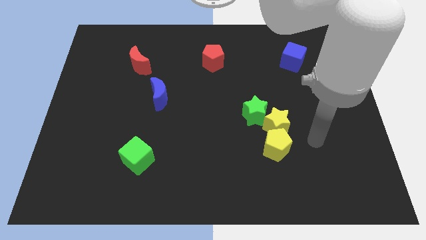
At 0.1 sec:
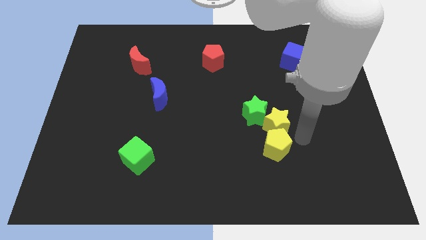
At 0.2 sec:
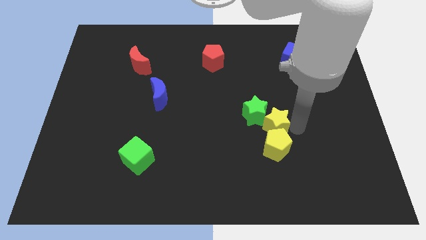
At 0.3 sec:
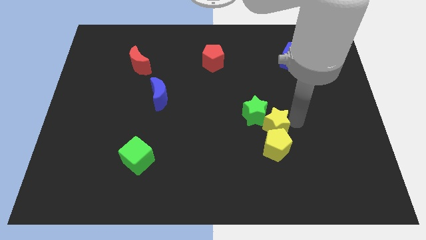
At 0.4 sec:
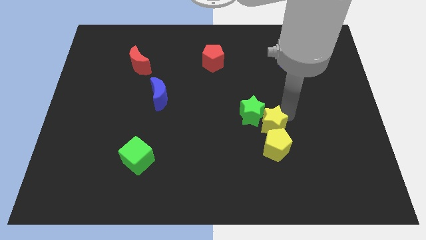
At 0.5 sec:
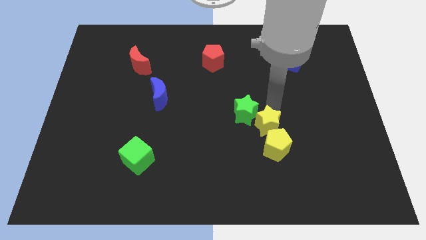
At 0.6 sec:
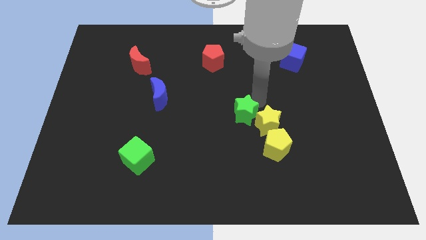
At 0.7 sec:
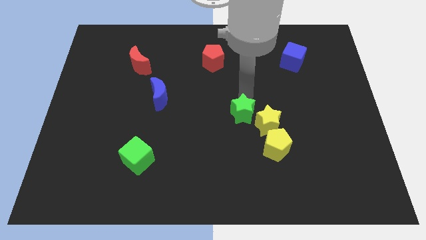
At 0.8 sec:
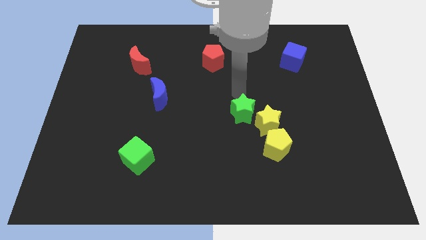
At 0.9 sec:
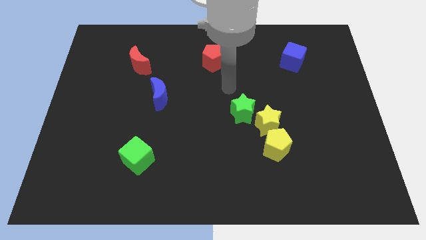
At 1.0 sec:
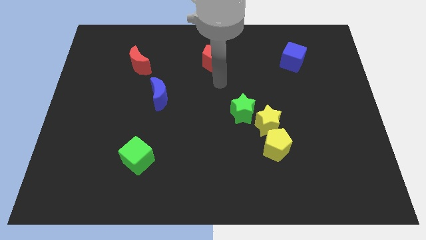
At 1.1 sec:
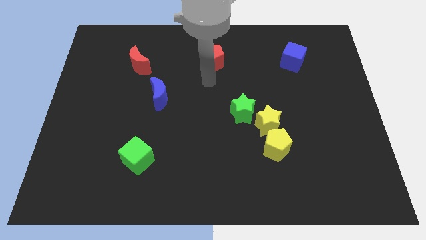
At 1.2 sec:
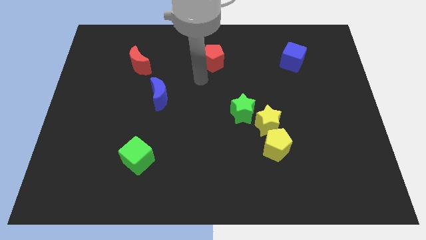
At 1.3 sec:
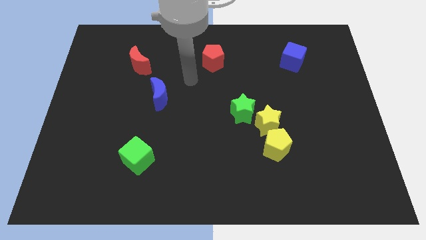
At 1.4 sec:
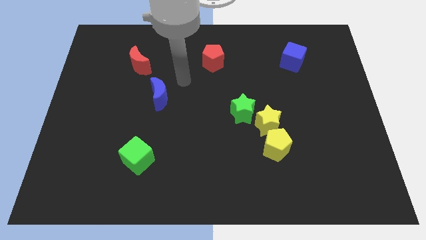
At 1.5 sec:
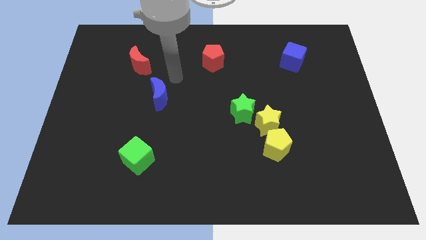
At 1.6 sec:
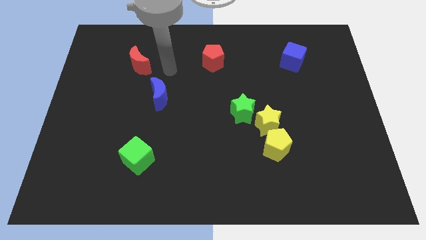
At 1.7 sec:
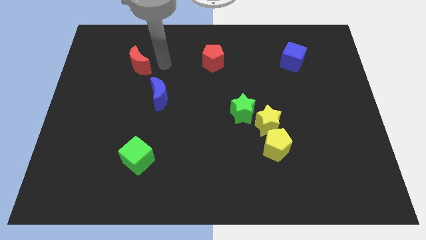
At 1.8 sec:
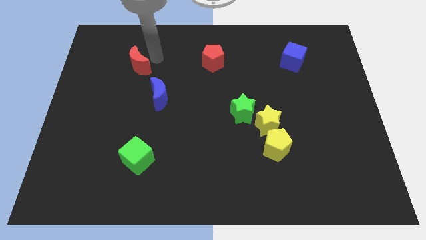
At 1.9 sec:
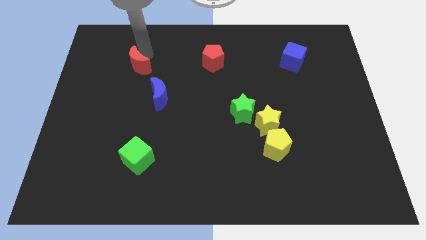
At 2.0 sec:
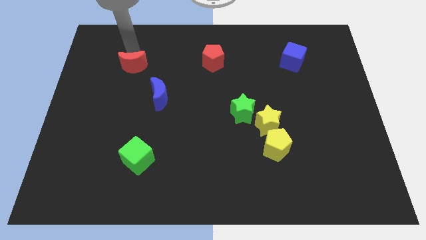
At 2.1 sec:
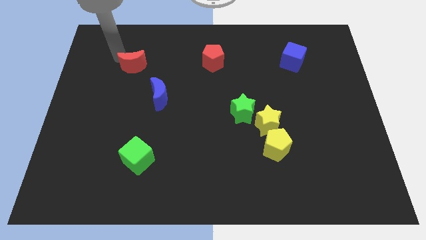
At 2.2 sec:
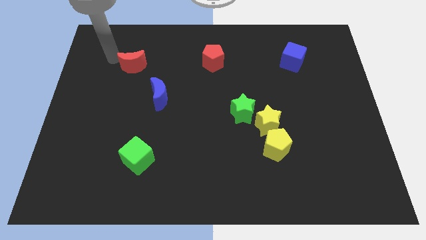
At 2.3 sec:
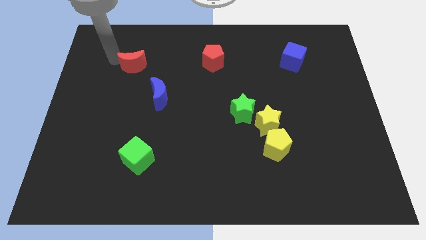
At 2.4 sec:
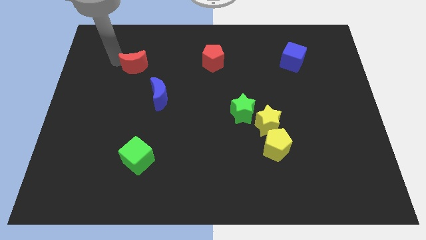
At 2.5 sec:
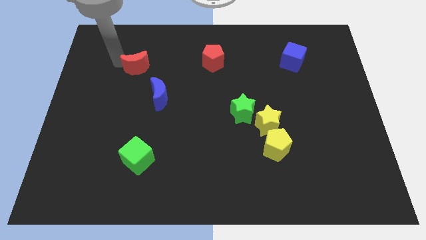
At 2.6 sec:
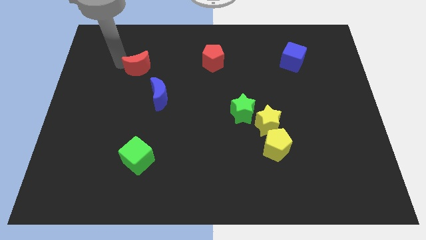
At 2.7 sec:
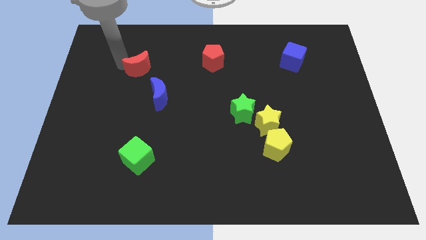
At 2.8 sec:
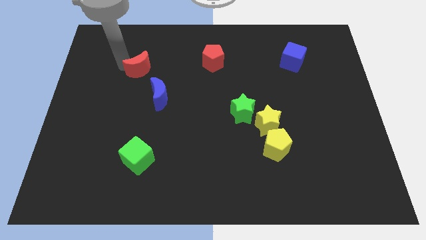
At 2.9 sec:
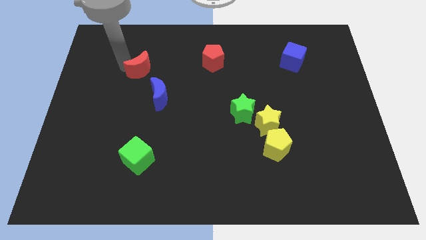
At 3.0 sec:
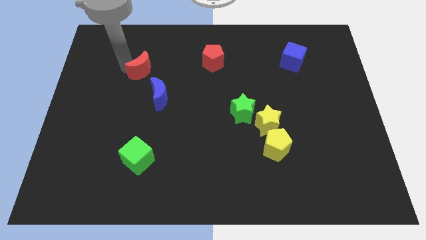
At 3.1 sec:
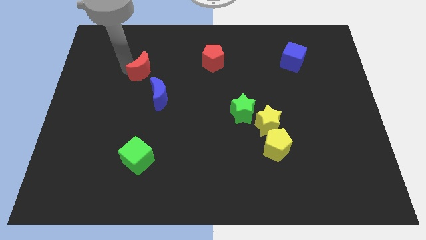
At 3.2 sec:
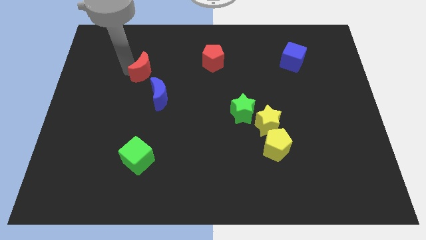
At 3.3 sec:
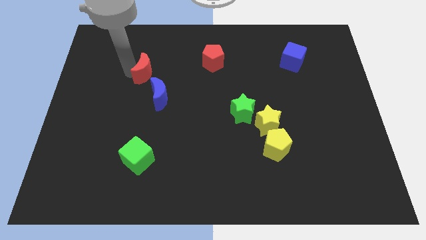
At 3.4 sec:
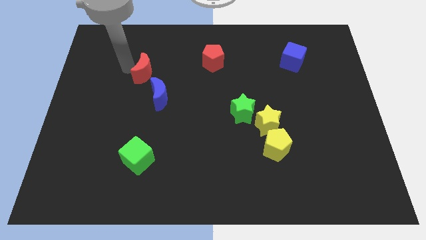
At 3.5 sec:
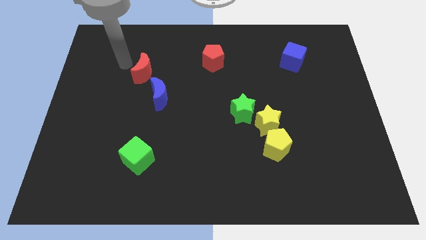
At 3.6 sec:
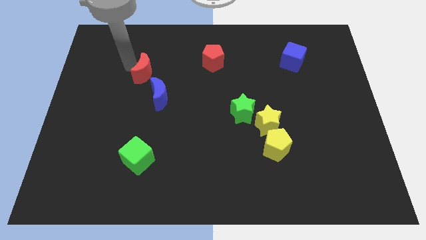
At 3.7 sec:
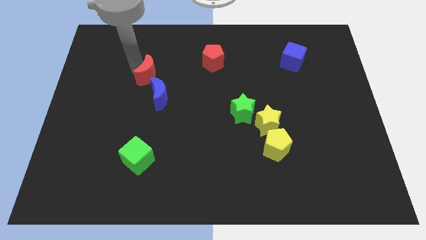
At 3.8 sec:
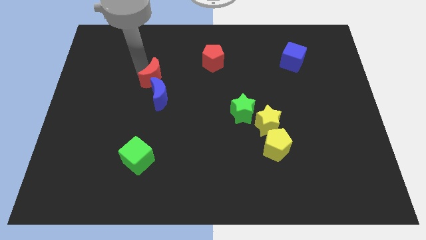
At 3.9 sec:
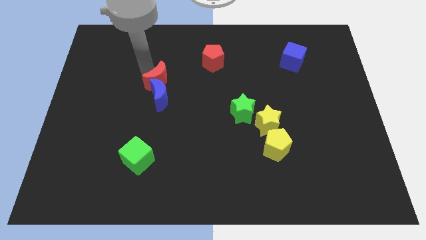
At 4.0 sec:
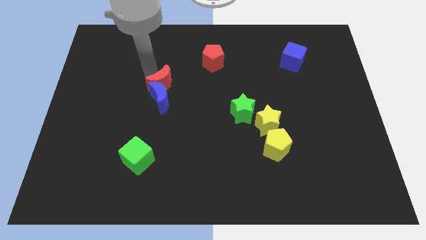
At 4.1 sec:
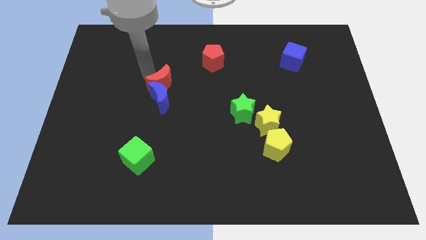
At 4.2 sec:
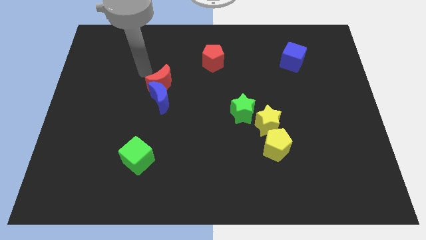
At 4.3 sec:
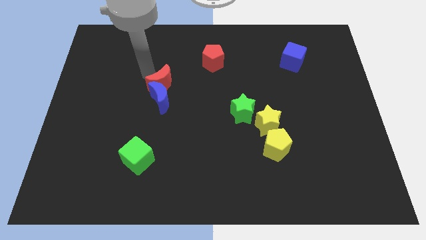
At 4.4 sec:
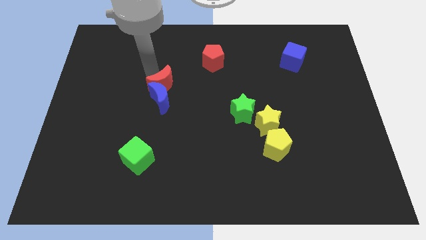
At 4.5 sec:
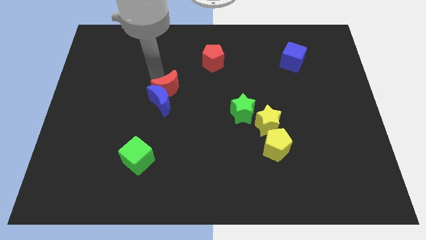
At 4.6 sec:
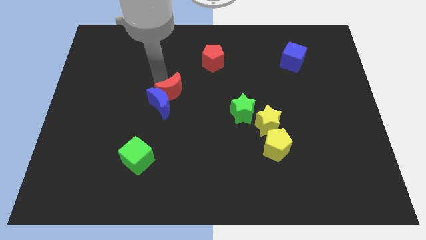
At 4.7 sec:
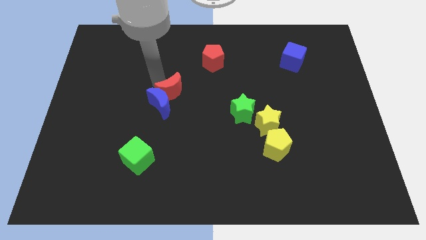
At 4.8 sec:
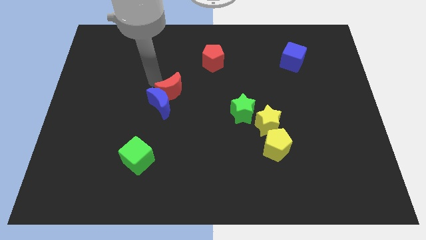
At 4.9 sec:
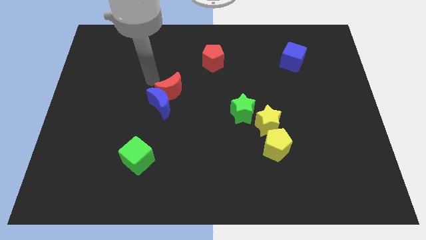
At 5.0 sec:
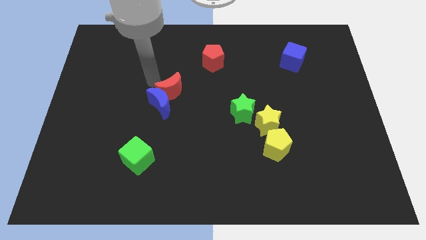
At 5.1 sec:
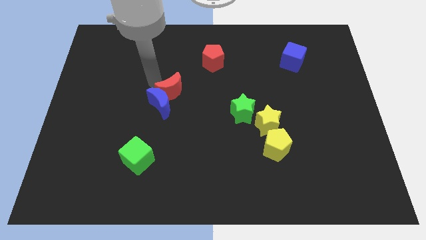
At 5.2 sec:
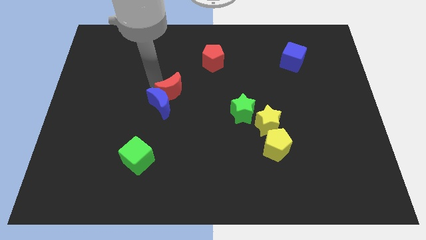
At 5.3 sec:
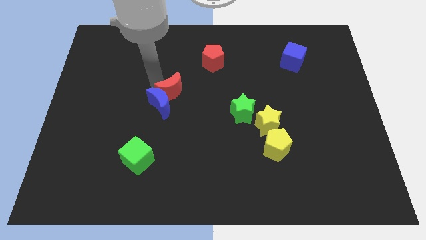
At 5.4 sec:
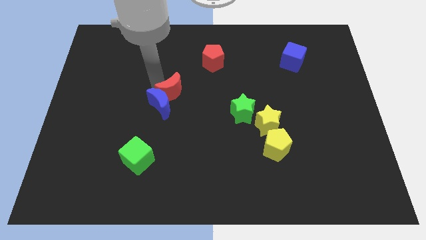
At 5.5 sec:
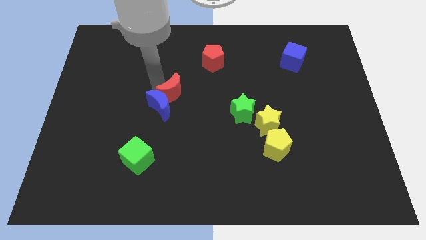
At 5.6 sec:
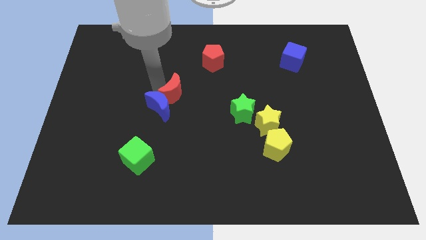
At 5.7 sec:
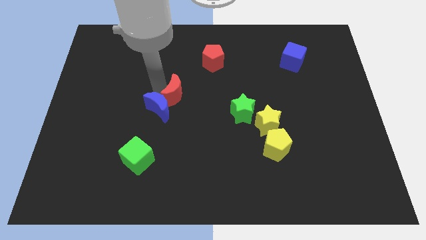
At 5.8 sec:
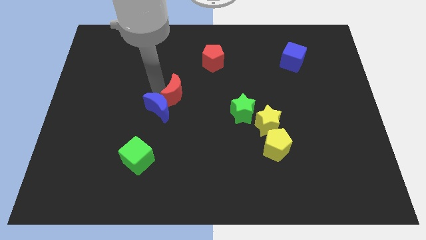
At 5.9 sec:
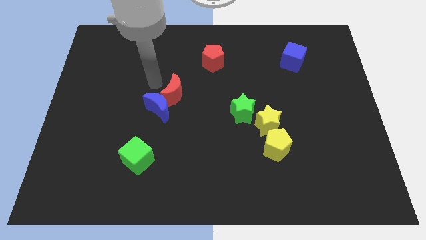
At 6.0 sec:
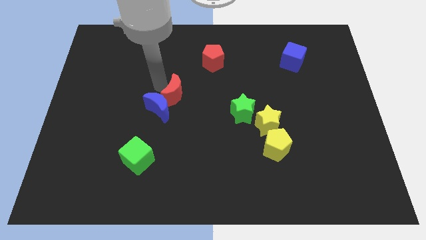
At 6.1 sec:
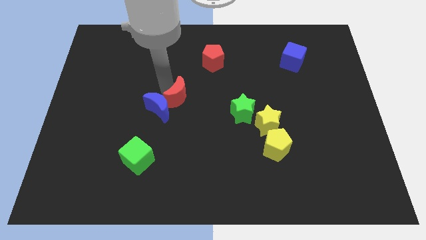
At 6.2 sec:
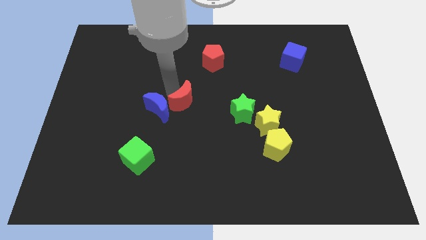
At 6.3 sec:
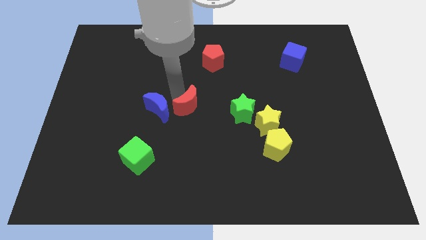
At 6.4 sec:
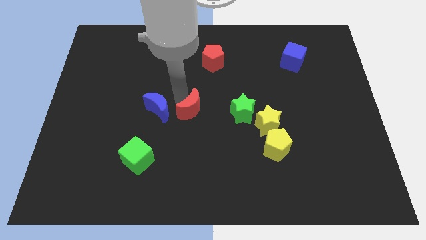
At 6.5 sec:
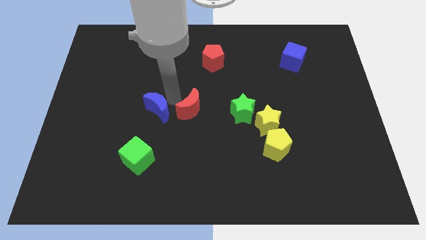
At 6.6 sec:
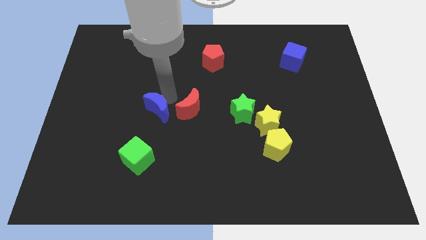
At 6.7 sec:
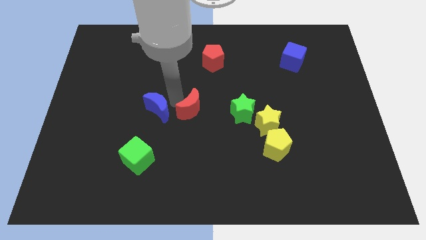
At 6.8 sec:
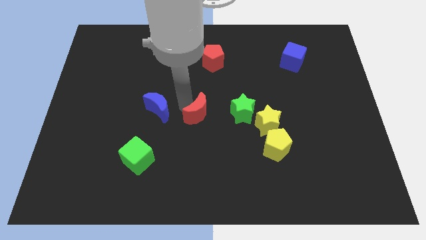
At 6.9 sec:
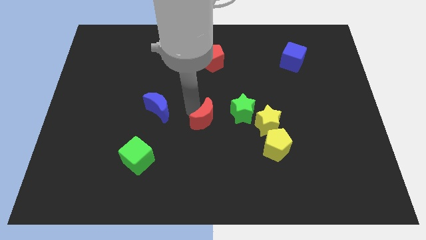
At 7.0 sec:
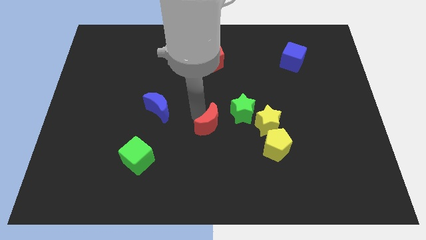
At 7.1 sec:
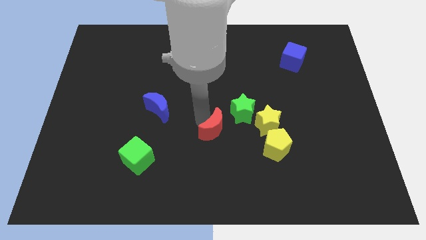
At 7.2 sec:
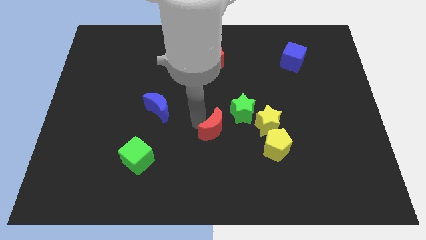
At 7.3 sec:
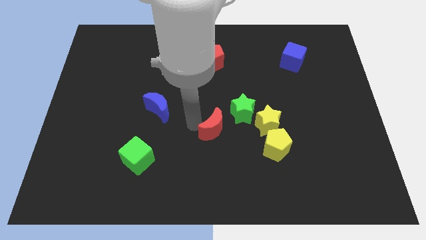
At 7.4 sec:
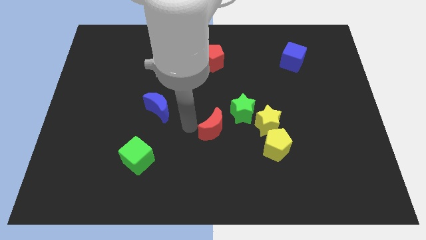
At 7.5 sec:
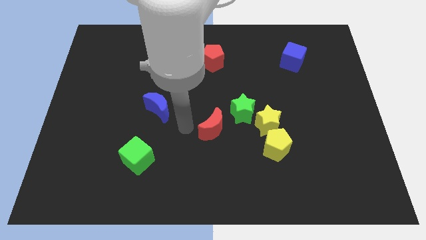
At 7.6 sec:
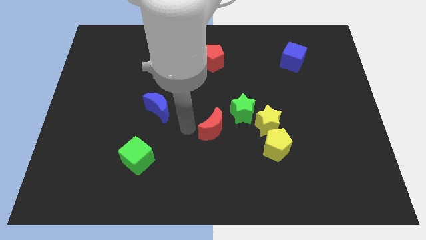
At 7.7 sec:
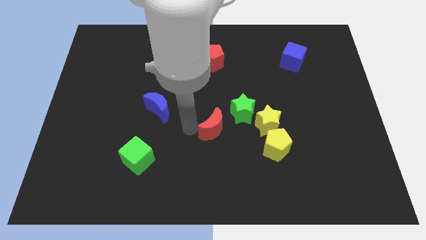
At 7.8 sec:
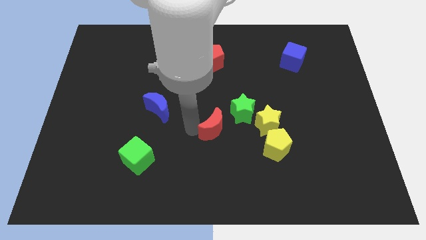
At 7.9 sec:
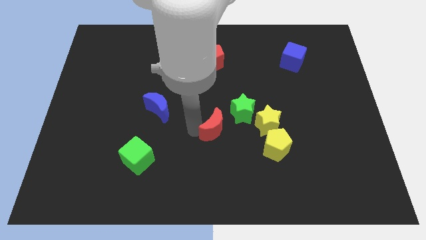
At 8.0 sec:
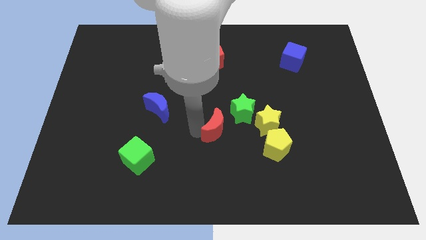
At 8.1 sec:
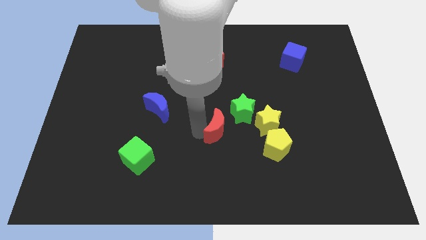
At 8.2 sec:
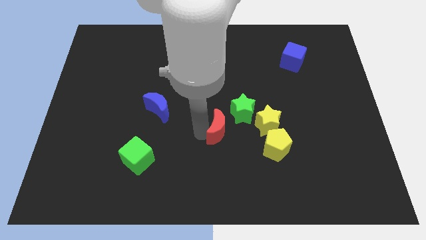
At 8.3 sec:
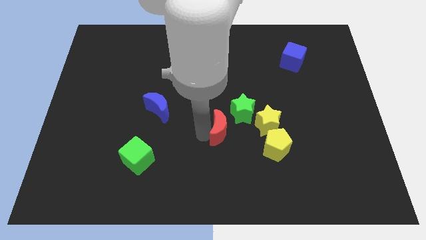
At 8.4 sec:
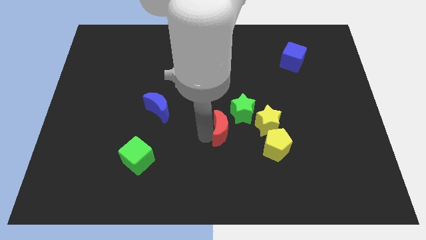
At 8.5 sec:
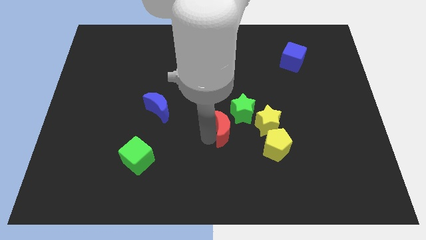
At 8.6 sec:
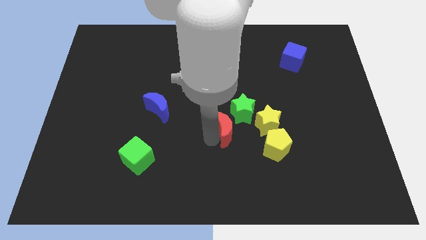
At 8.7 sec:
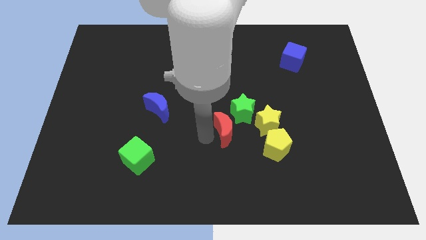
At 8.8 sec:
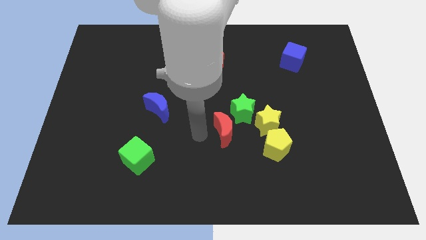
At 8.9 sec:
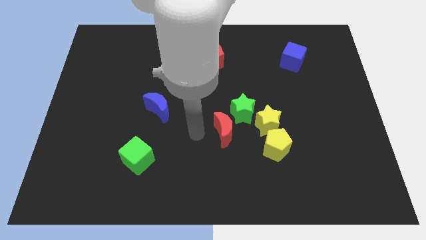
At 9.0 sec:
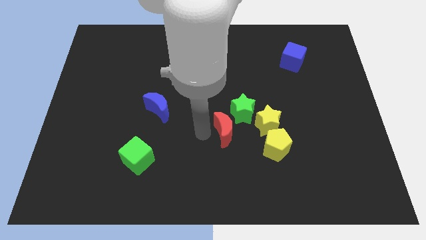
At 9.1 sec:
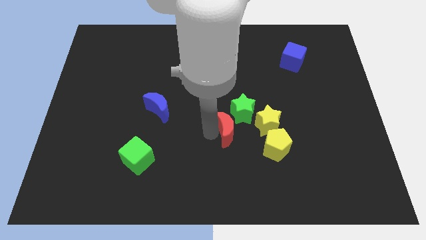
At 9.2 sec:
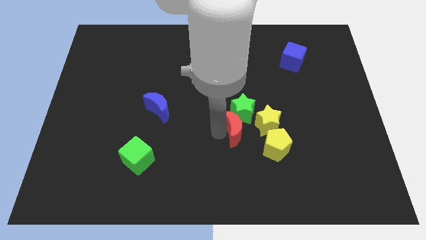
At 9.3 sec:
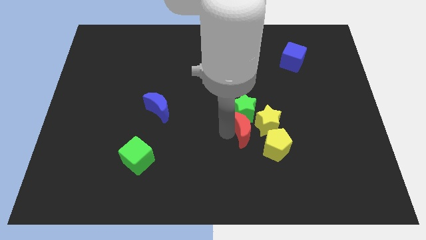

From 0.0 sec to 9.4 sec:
move the red moon towards the yellow star
